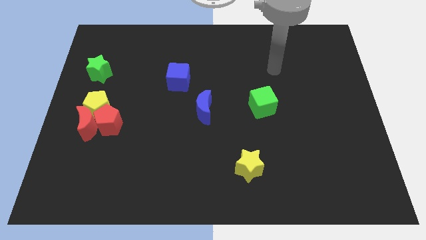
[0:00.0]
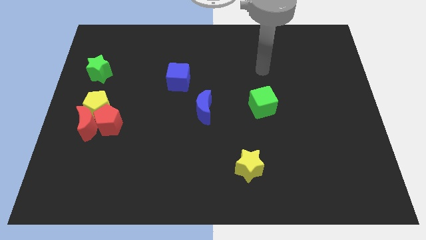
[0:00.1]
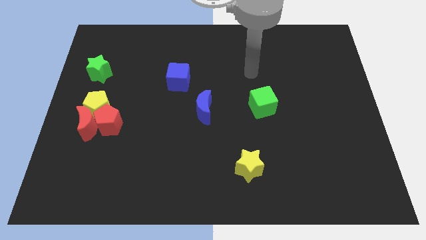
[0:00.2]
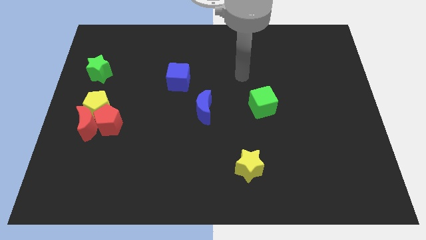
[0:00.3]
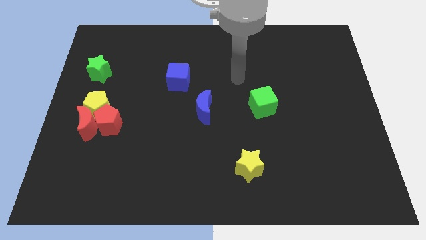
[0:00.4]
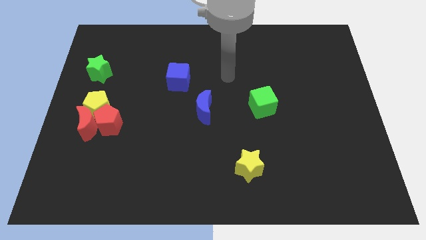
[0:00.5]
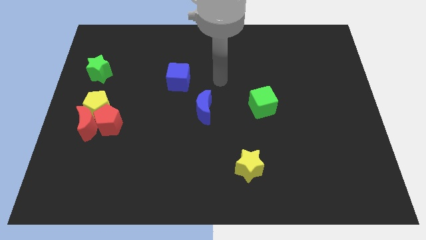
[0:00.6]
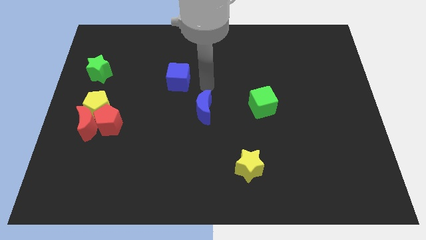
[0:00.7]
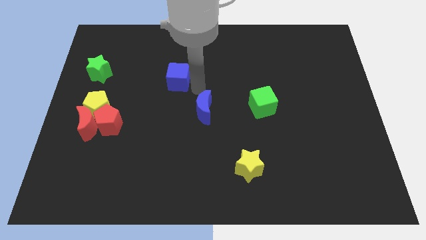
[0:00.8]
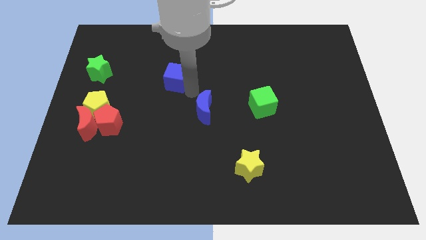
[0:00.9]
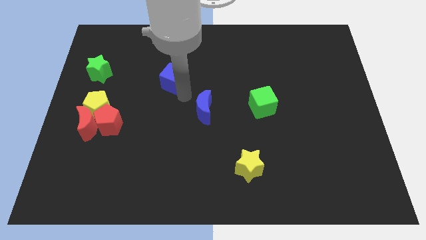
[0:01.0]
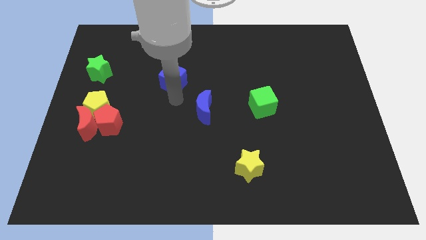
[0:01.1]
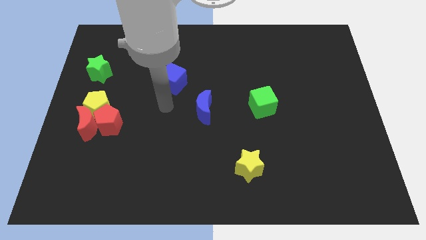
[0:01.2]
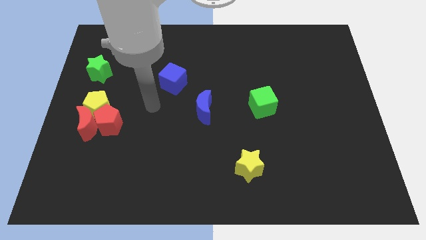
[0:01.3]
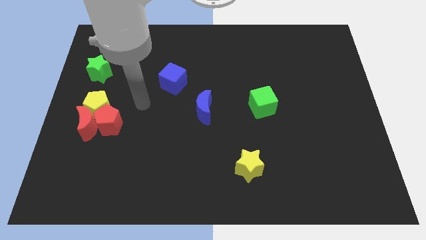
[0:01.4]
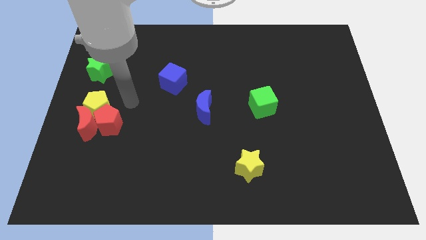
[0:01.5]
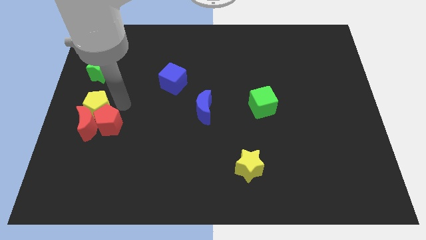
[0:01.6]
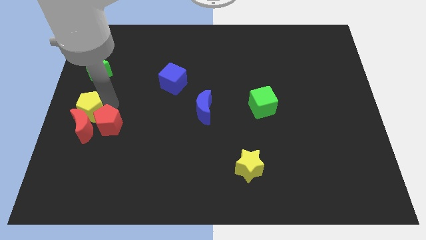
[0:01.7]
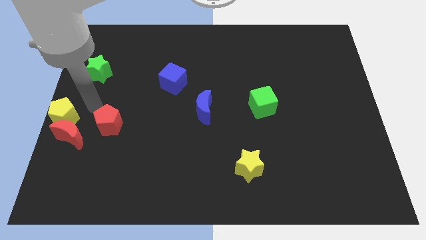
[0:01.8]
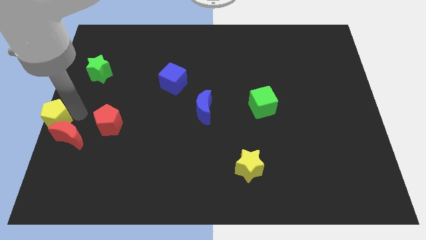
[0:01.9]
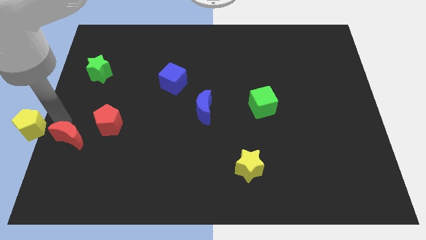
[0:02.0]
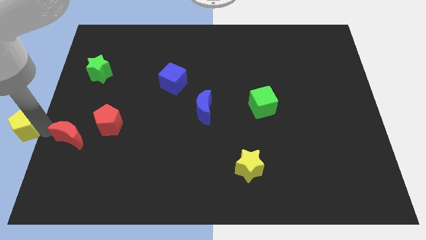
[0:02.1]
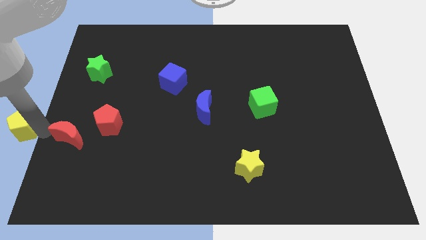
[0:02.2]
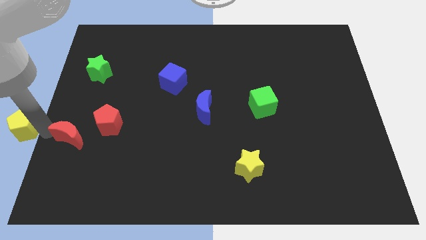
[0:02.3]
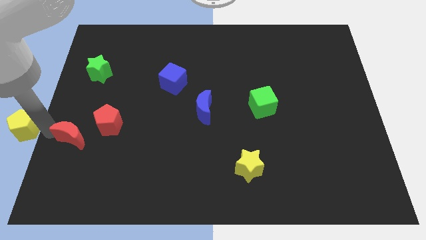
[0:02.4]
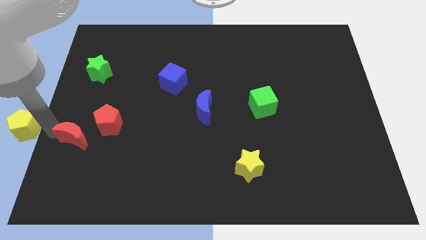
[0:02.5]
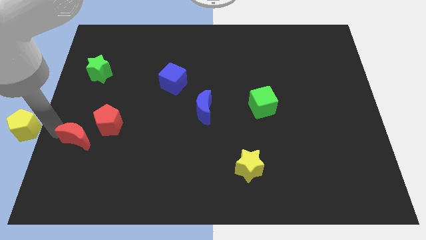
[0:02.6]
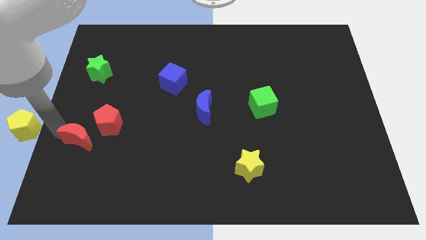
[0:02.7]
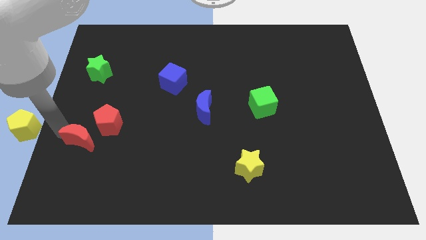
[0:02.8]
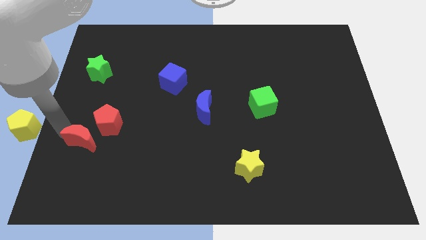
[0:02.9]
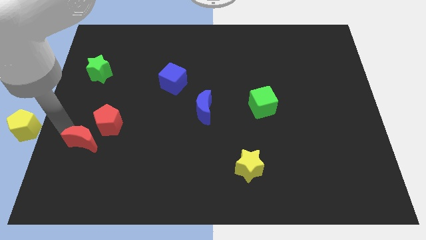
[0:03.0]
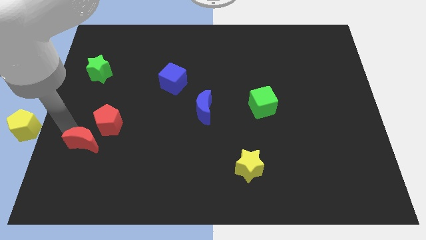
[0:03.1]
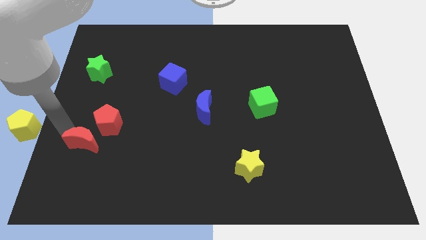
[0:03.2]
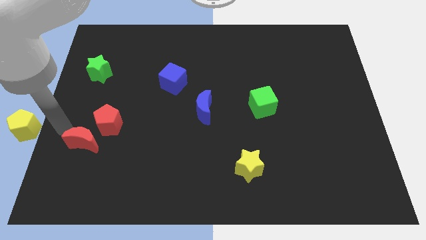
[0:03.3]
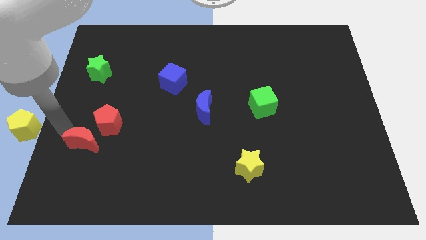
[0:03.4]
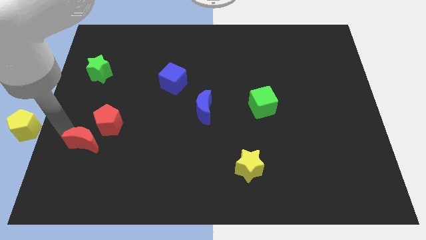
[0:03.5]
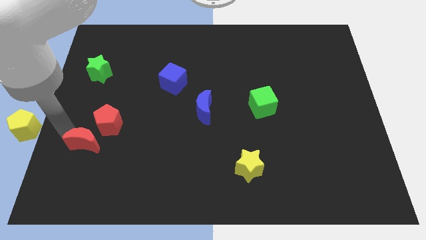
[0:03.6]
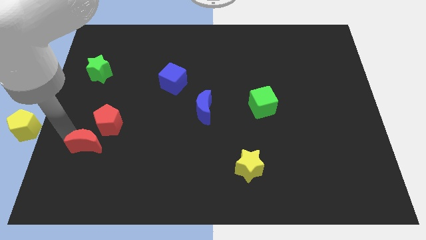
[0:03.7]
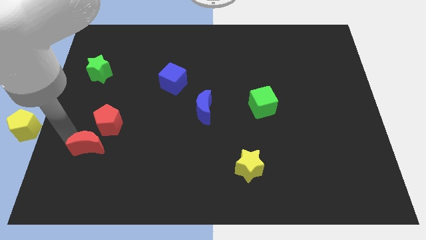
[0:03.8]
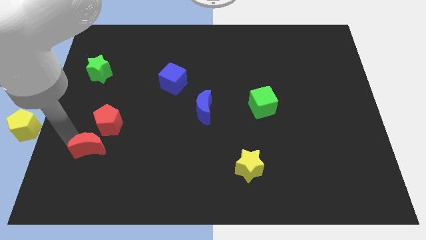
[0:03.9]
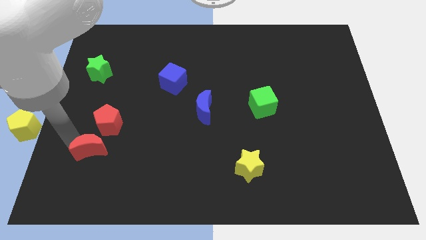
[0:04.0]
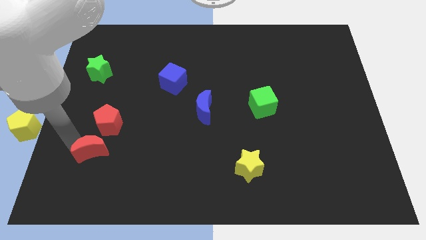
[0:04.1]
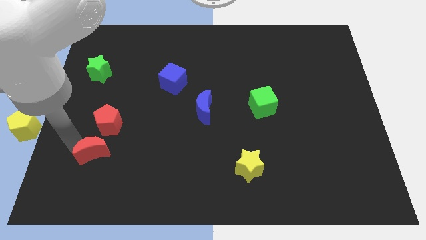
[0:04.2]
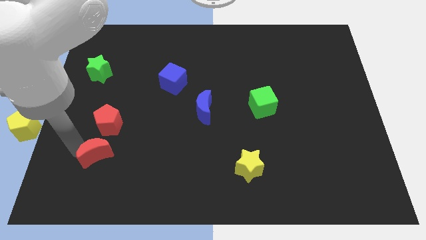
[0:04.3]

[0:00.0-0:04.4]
slightly push the red moon diagonally downwards and to the right

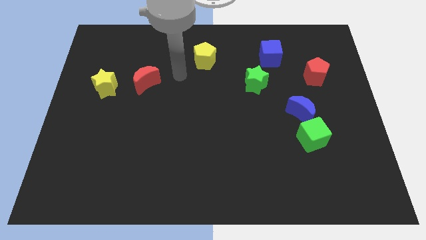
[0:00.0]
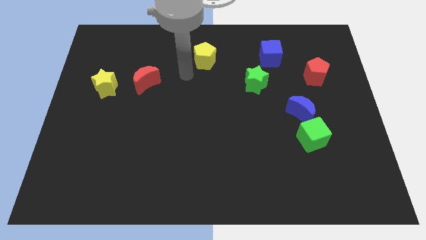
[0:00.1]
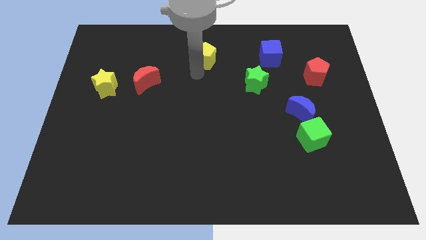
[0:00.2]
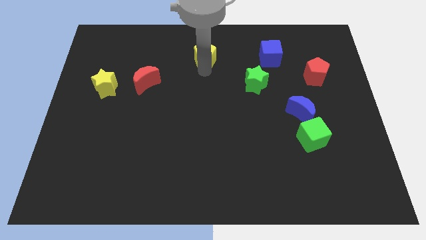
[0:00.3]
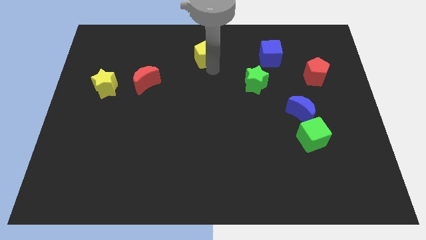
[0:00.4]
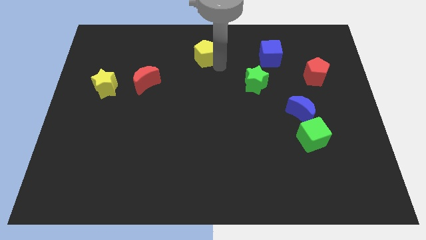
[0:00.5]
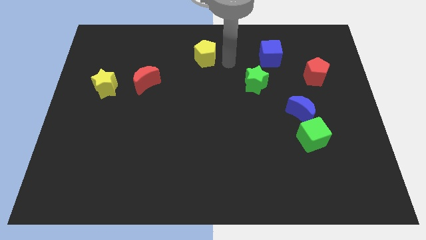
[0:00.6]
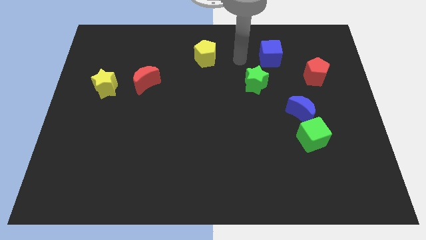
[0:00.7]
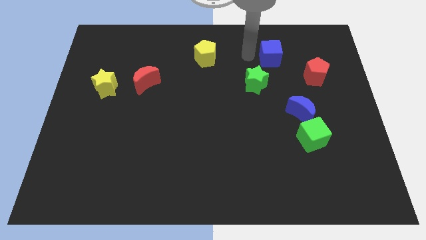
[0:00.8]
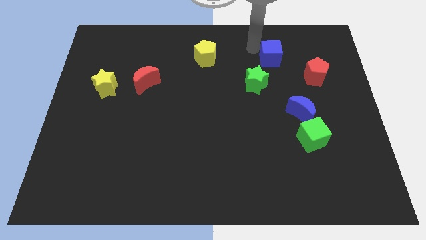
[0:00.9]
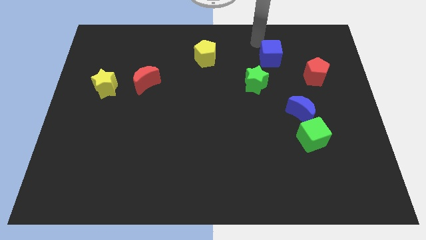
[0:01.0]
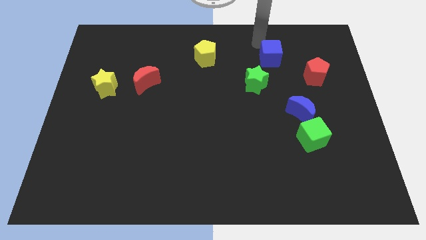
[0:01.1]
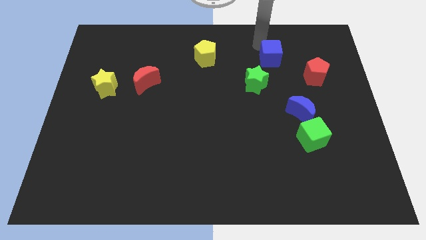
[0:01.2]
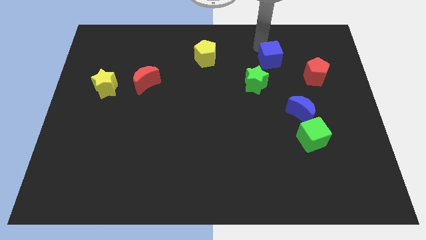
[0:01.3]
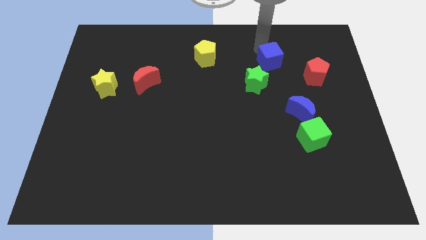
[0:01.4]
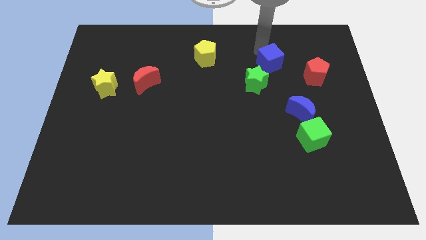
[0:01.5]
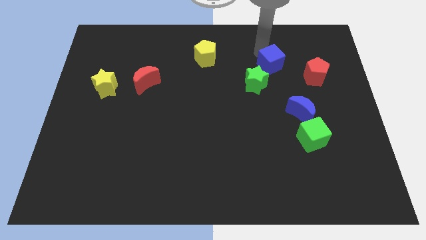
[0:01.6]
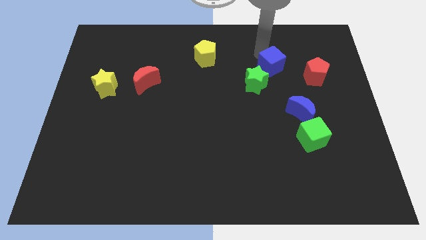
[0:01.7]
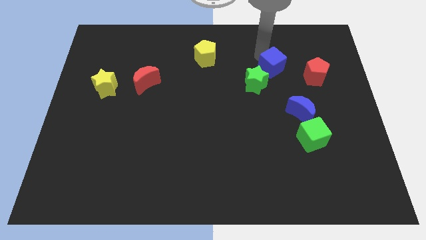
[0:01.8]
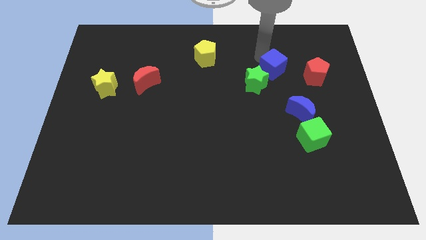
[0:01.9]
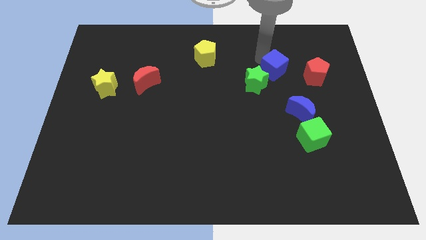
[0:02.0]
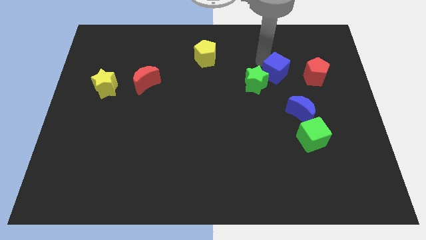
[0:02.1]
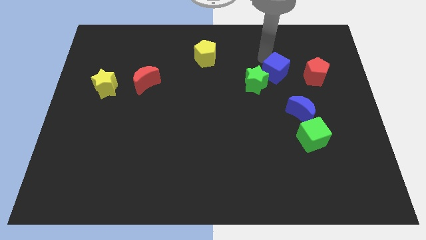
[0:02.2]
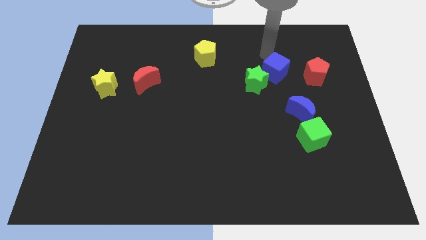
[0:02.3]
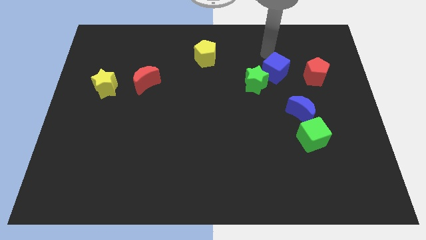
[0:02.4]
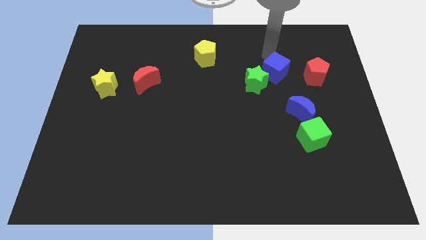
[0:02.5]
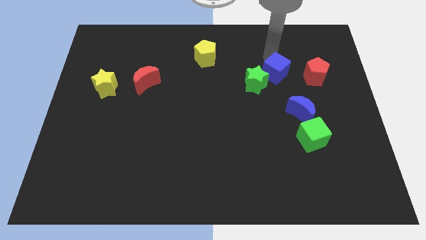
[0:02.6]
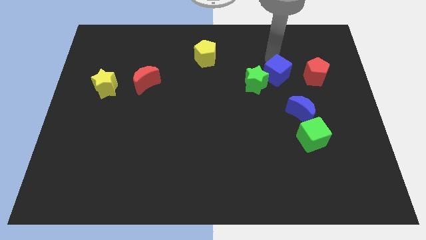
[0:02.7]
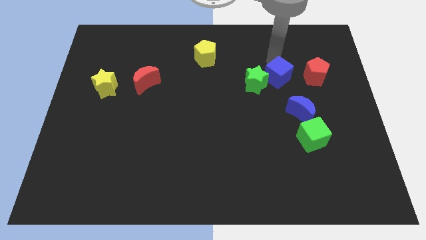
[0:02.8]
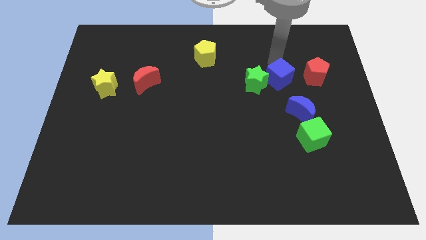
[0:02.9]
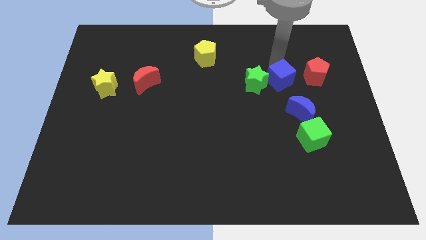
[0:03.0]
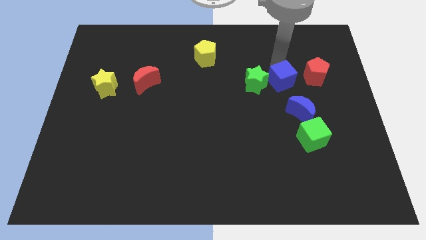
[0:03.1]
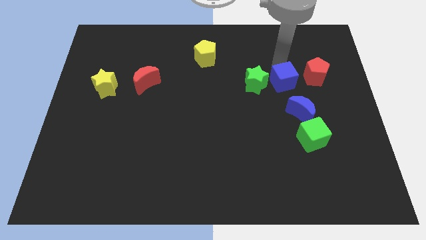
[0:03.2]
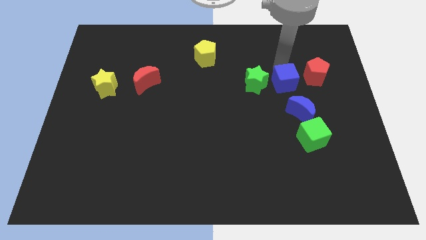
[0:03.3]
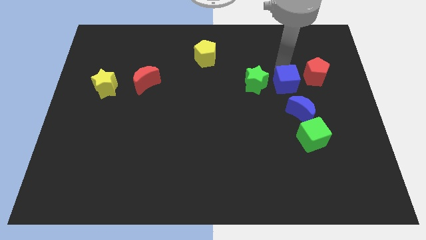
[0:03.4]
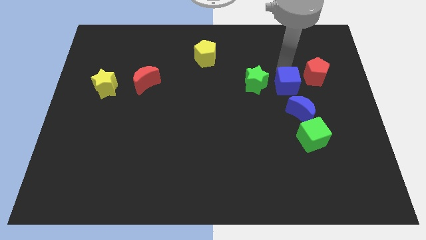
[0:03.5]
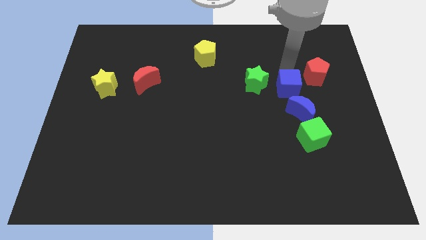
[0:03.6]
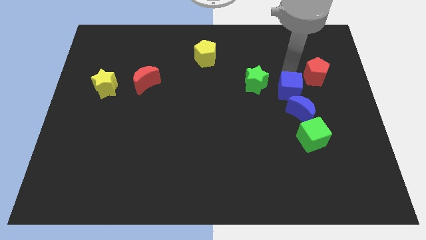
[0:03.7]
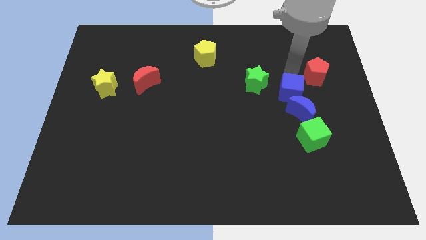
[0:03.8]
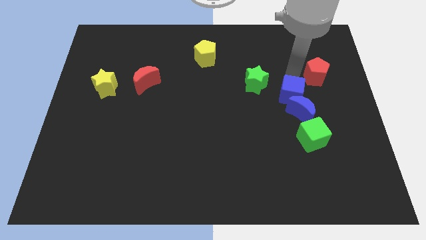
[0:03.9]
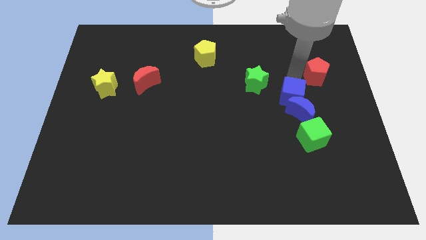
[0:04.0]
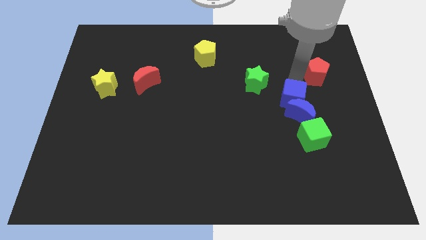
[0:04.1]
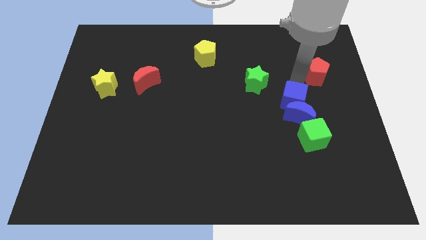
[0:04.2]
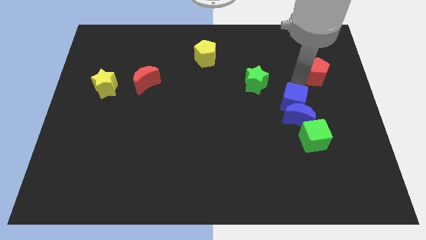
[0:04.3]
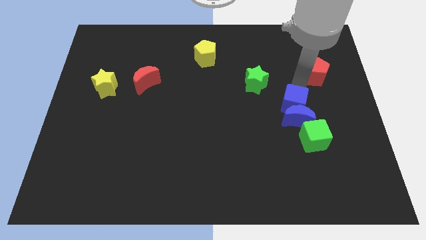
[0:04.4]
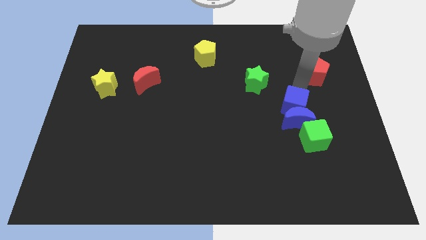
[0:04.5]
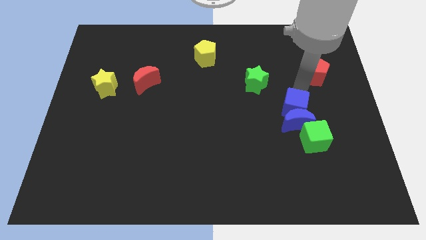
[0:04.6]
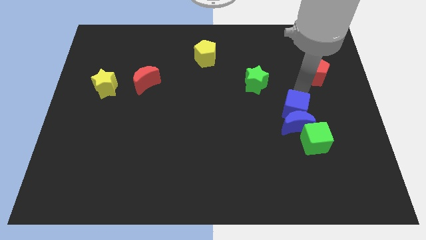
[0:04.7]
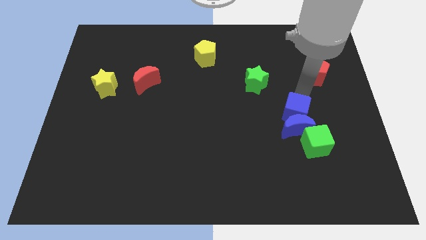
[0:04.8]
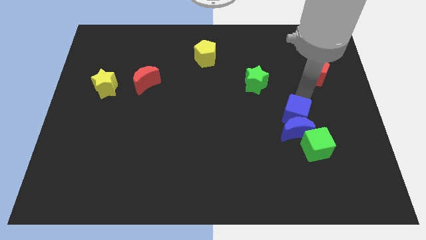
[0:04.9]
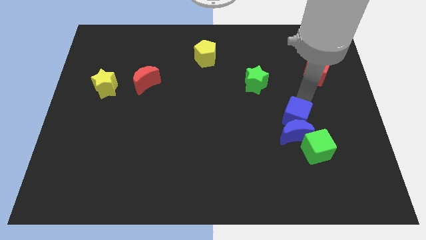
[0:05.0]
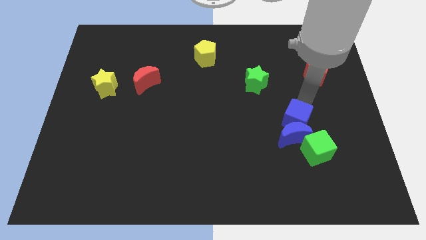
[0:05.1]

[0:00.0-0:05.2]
slide the blue cube downwards
